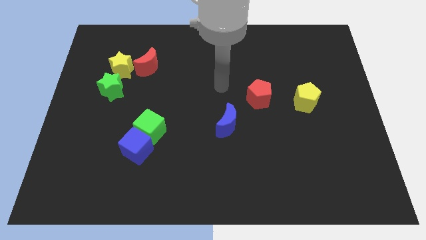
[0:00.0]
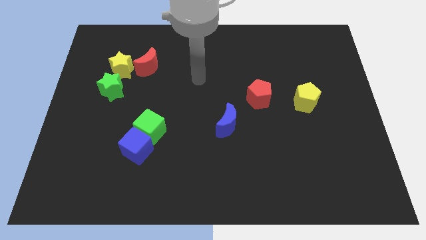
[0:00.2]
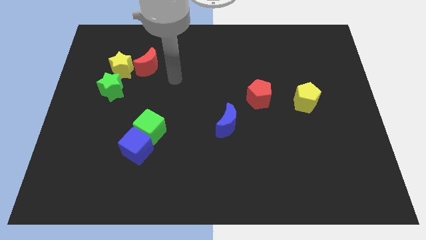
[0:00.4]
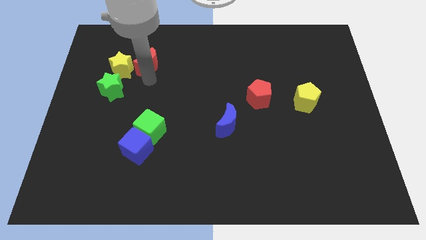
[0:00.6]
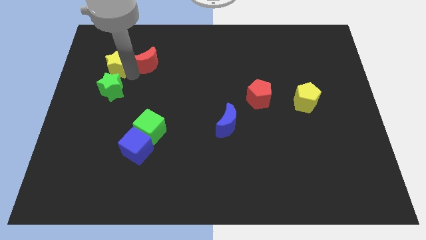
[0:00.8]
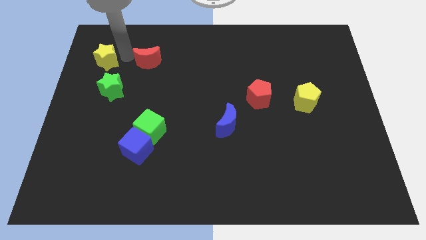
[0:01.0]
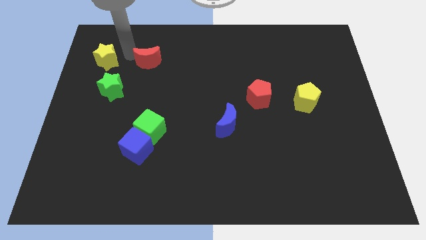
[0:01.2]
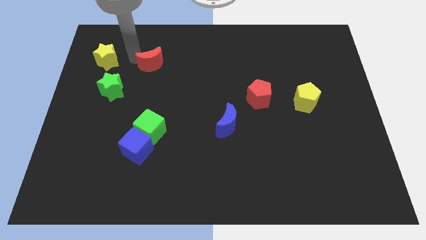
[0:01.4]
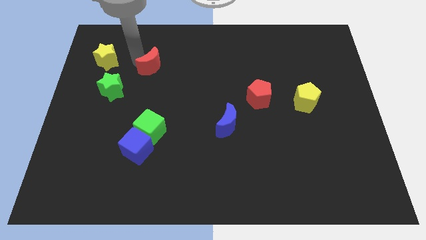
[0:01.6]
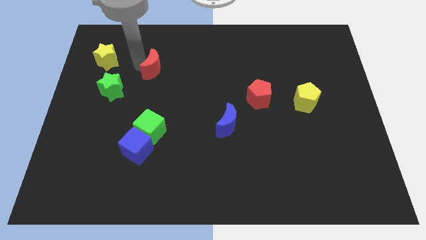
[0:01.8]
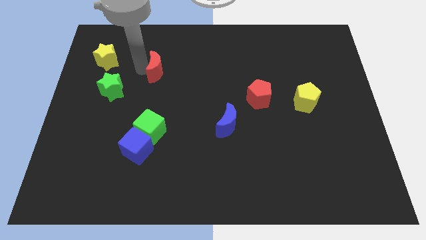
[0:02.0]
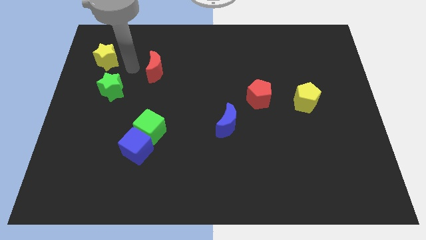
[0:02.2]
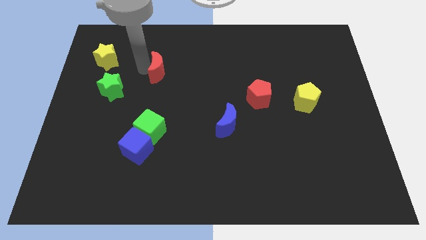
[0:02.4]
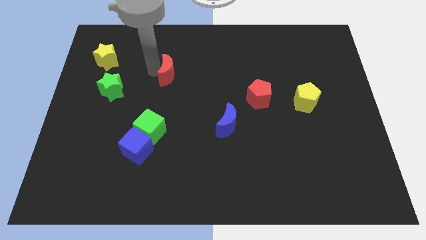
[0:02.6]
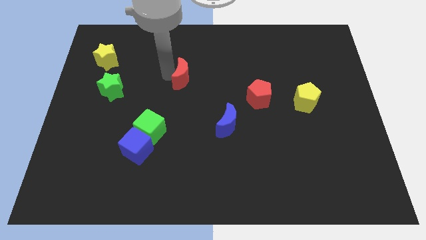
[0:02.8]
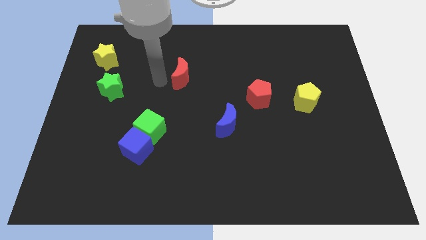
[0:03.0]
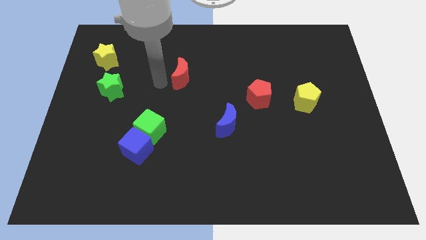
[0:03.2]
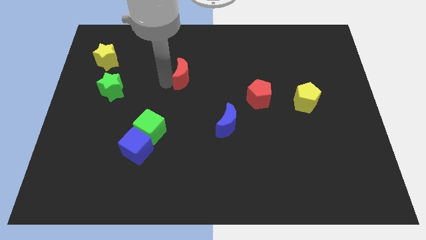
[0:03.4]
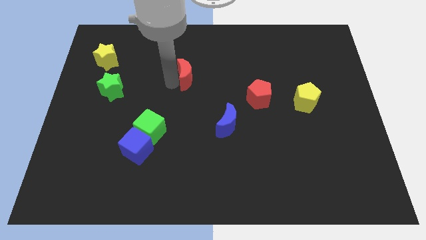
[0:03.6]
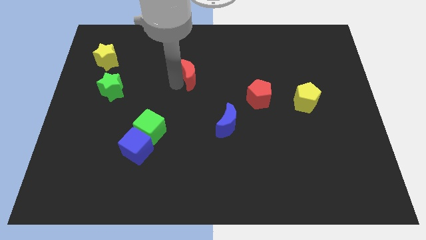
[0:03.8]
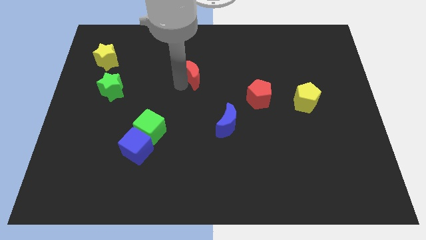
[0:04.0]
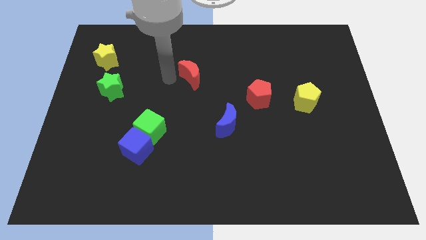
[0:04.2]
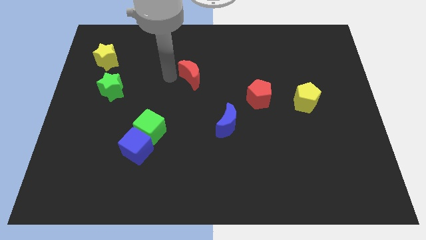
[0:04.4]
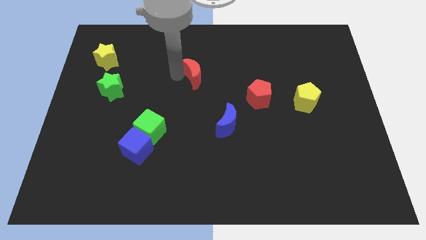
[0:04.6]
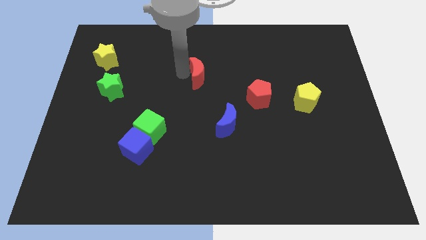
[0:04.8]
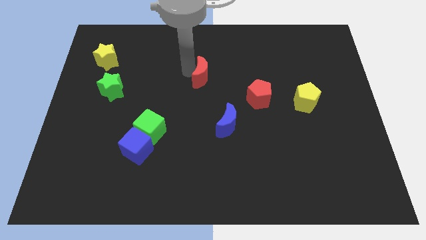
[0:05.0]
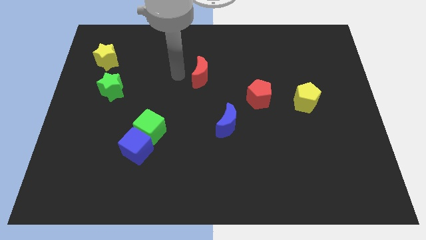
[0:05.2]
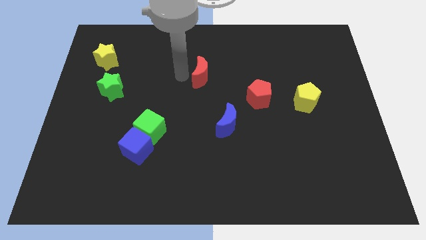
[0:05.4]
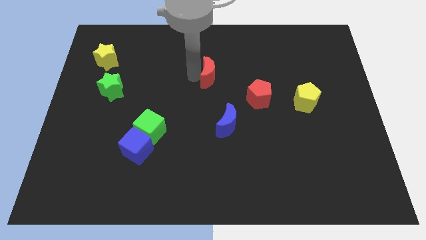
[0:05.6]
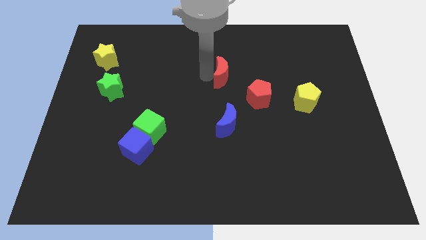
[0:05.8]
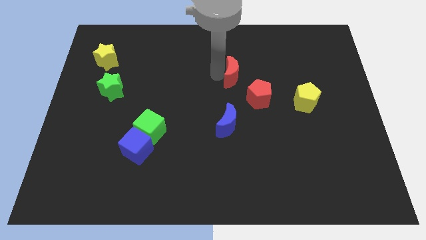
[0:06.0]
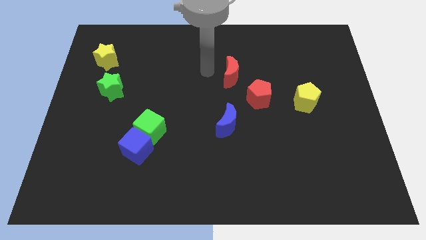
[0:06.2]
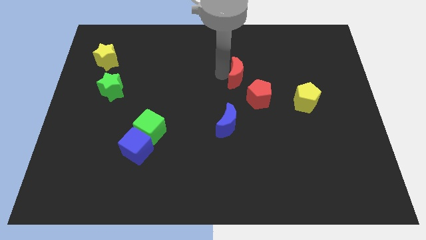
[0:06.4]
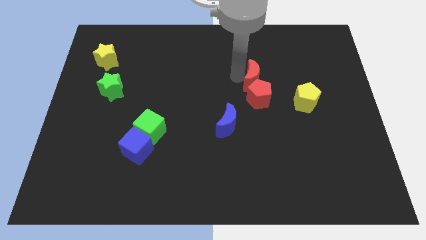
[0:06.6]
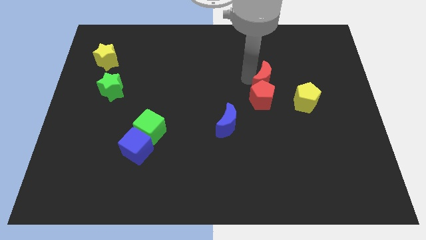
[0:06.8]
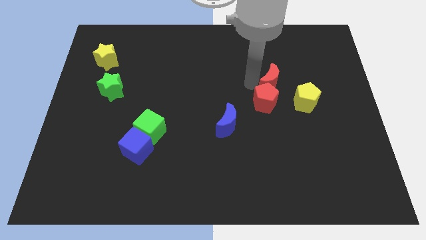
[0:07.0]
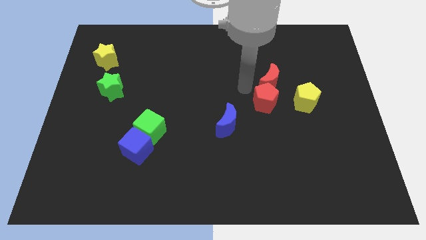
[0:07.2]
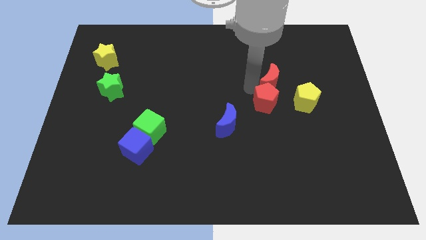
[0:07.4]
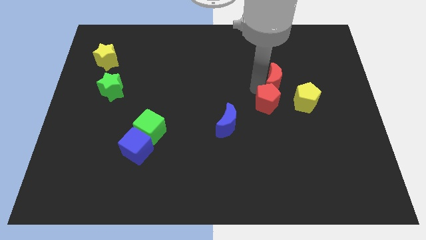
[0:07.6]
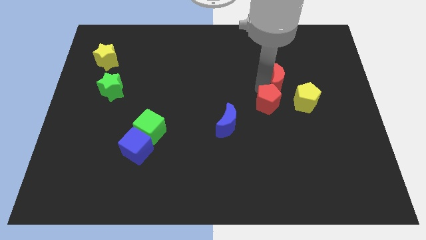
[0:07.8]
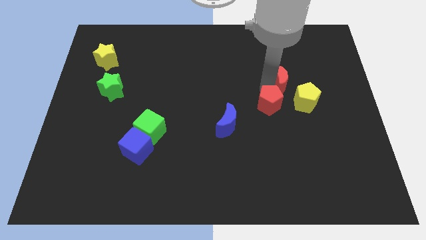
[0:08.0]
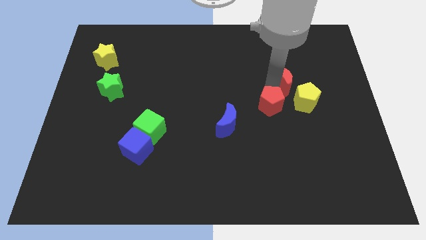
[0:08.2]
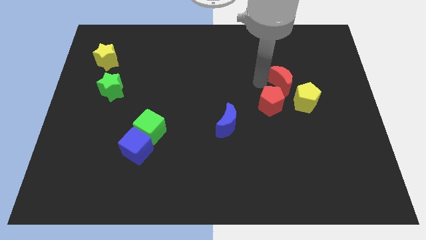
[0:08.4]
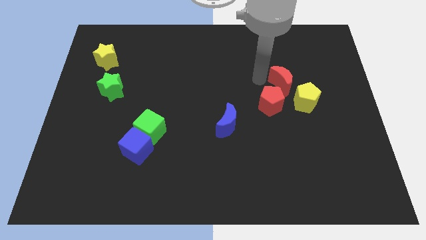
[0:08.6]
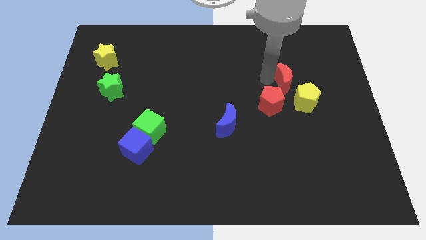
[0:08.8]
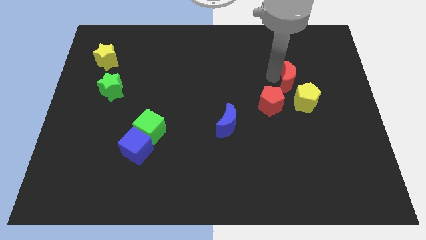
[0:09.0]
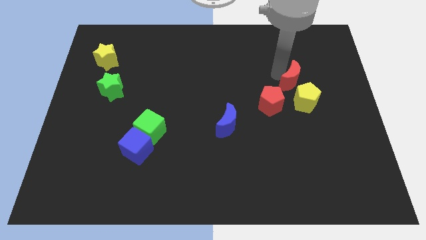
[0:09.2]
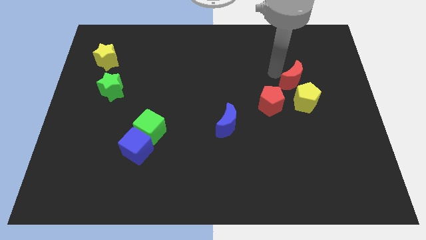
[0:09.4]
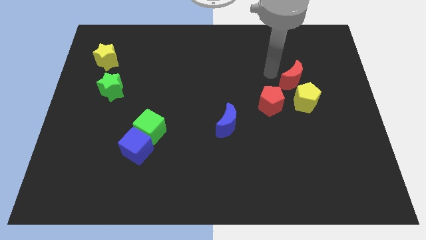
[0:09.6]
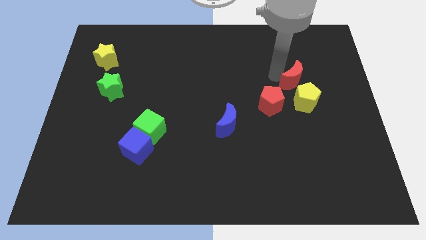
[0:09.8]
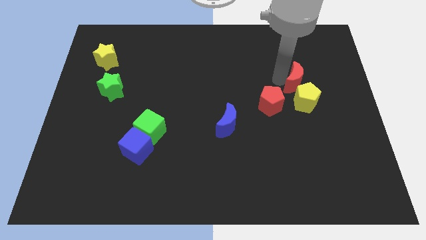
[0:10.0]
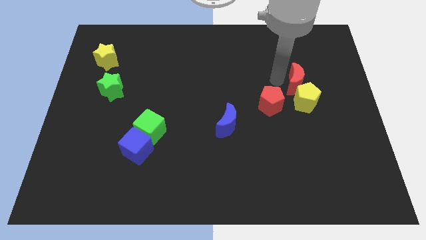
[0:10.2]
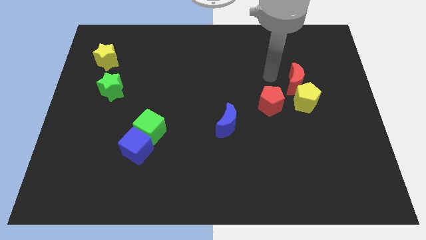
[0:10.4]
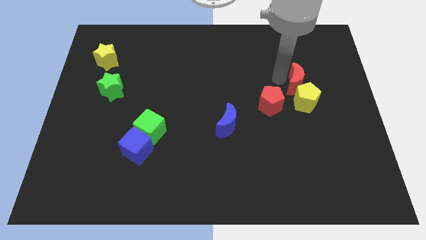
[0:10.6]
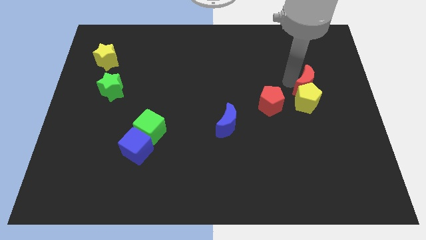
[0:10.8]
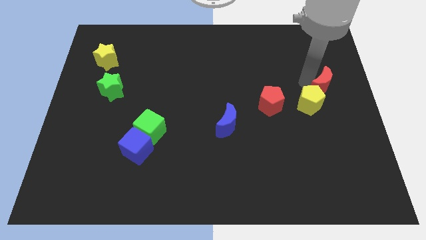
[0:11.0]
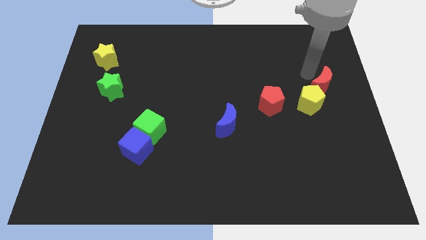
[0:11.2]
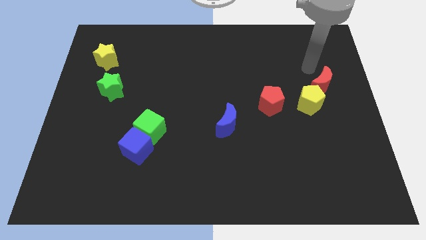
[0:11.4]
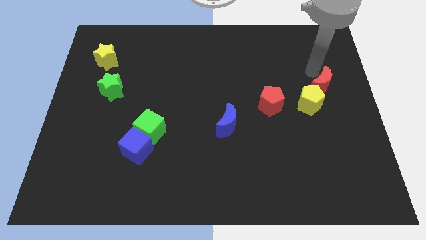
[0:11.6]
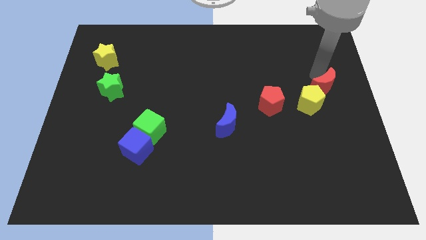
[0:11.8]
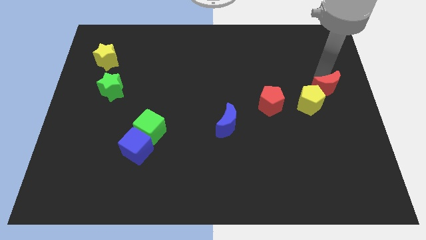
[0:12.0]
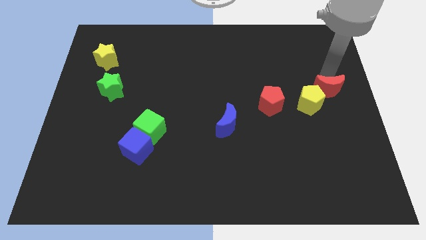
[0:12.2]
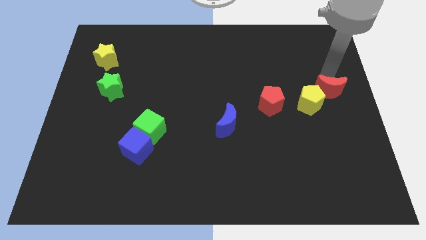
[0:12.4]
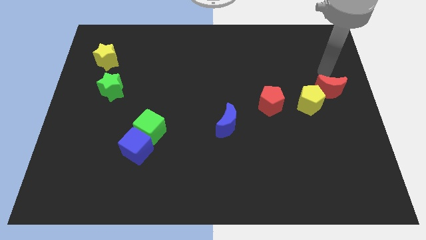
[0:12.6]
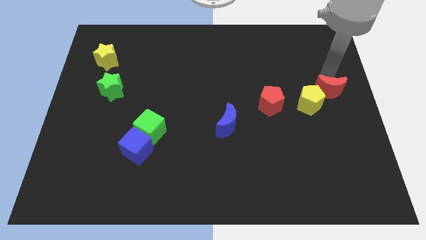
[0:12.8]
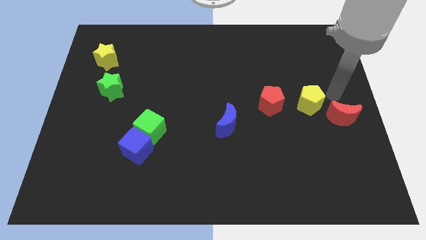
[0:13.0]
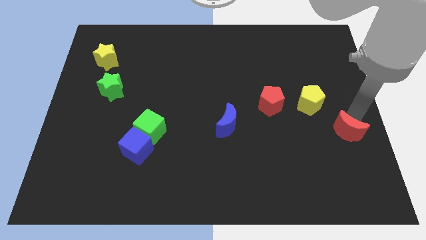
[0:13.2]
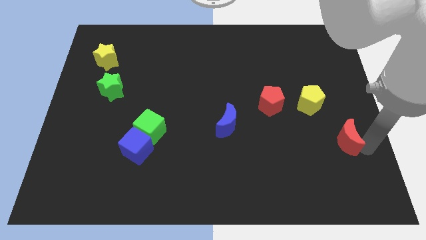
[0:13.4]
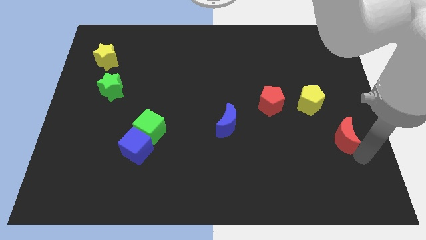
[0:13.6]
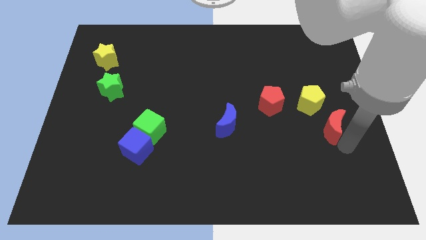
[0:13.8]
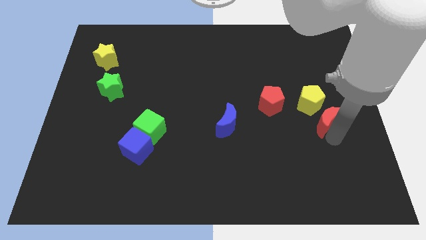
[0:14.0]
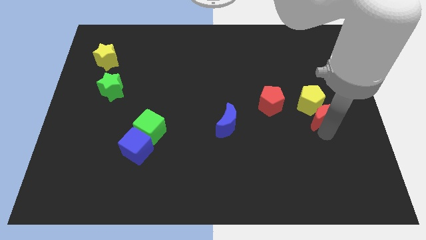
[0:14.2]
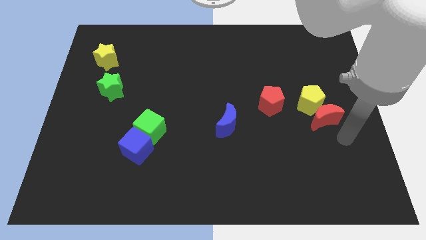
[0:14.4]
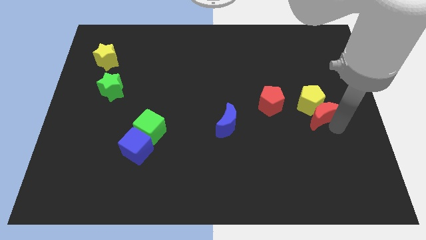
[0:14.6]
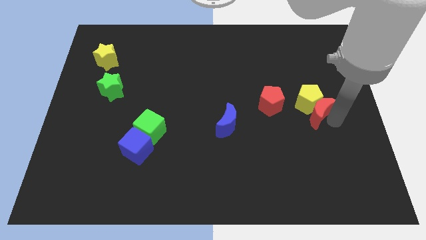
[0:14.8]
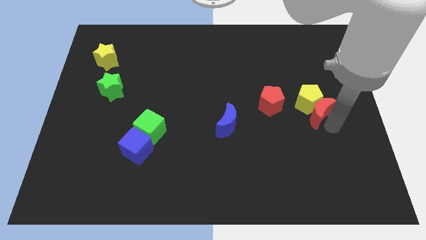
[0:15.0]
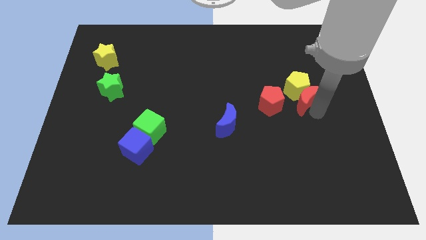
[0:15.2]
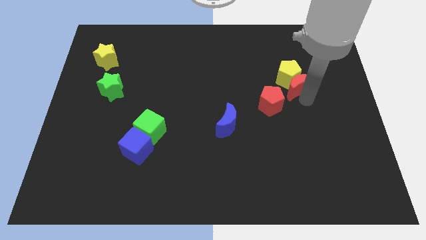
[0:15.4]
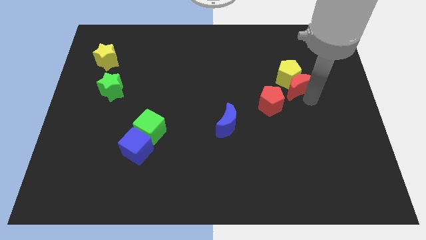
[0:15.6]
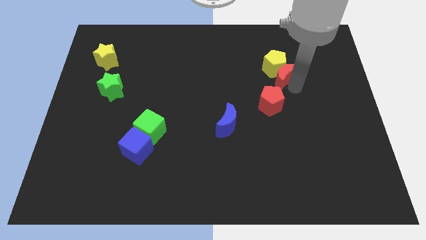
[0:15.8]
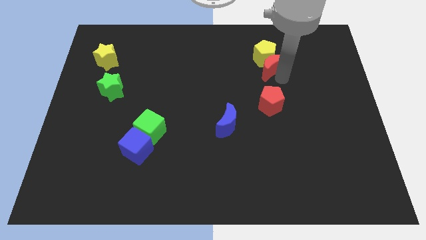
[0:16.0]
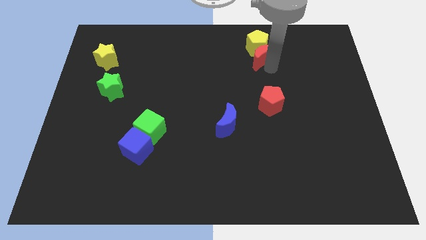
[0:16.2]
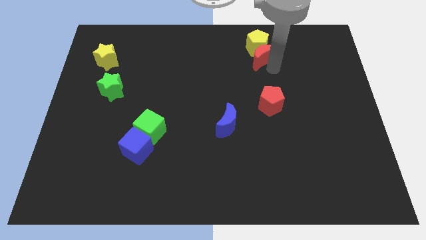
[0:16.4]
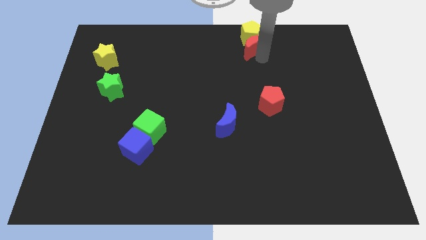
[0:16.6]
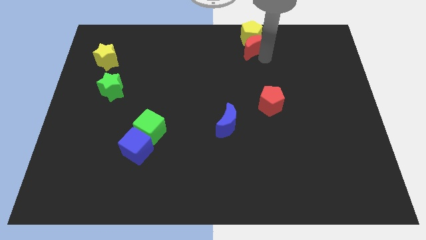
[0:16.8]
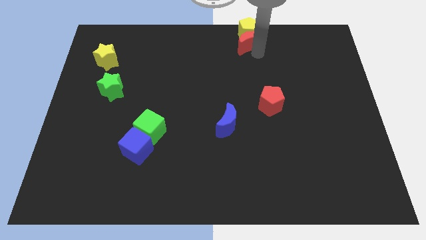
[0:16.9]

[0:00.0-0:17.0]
slide the red moon to the top side
